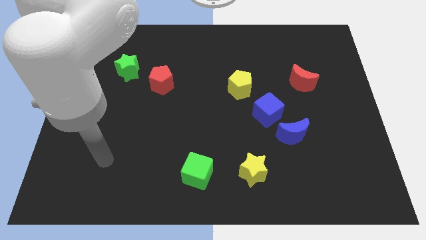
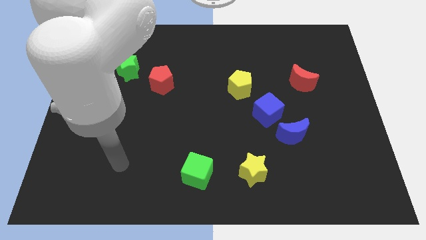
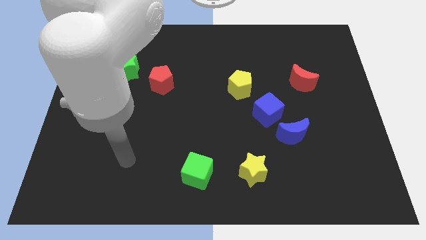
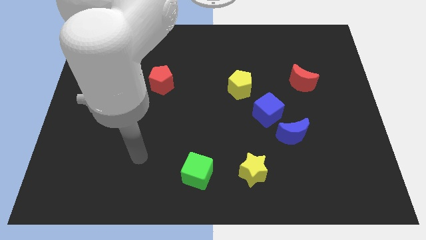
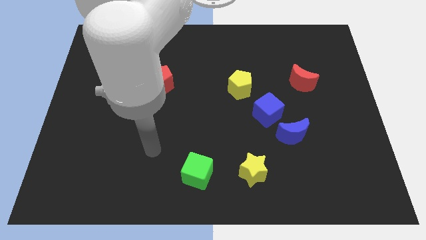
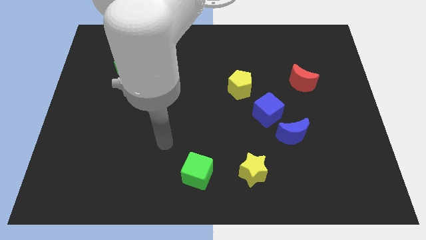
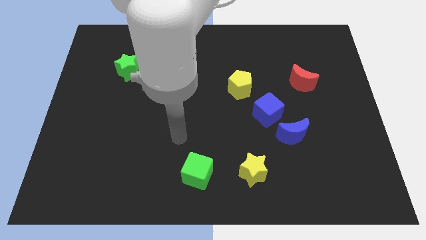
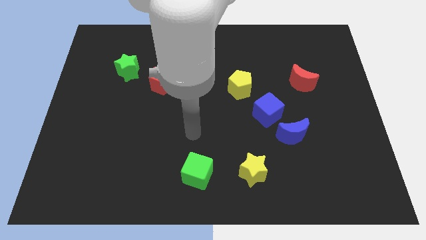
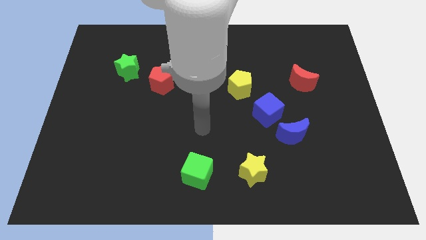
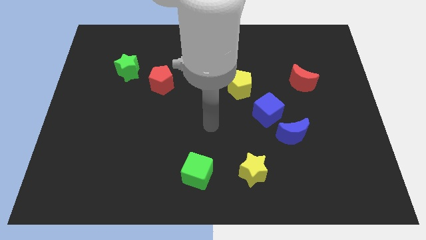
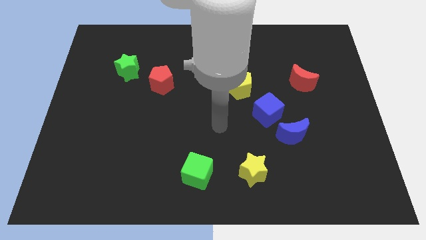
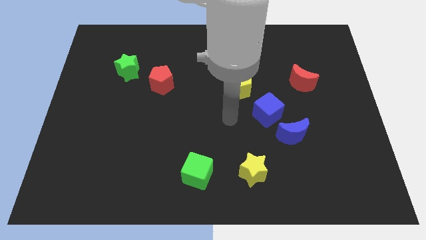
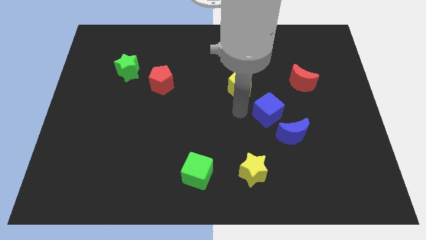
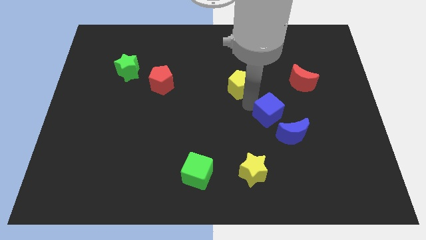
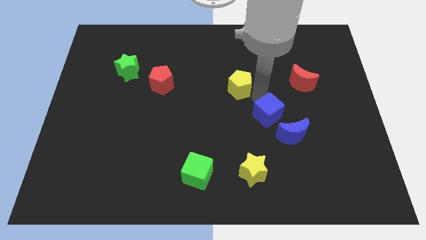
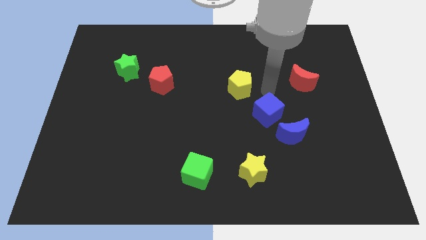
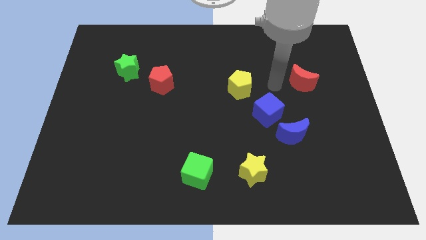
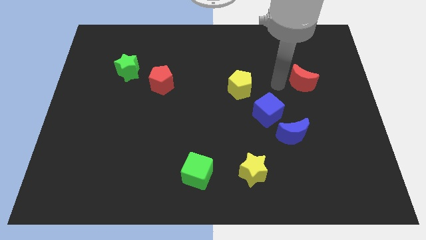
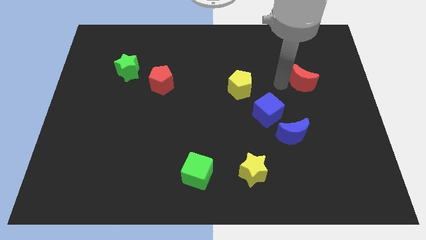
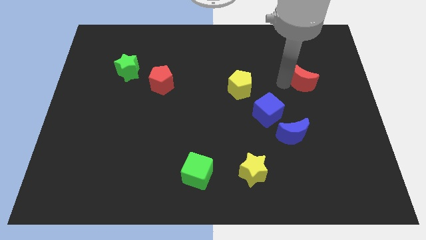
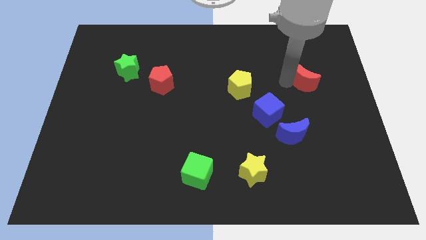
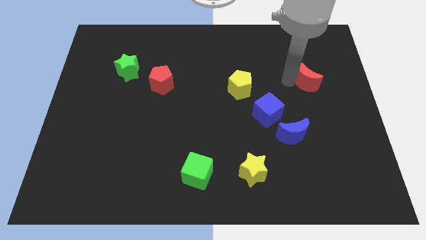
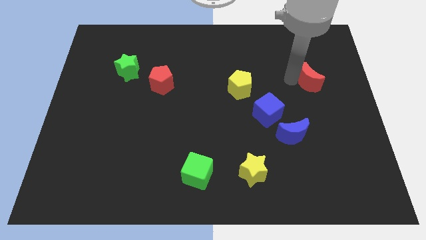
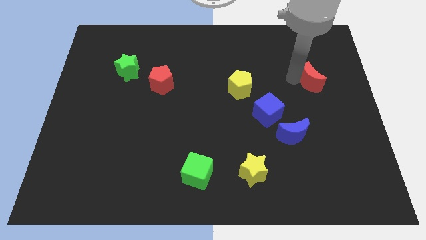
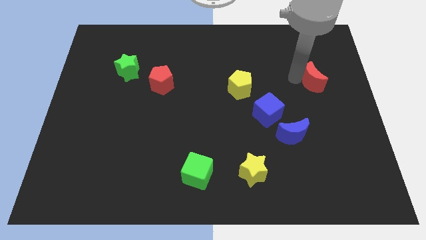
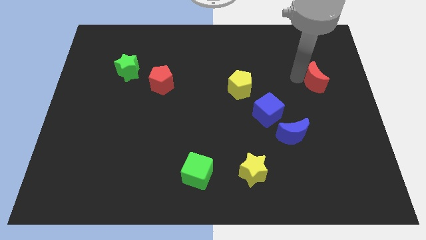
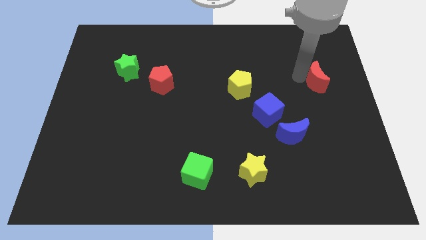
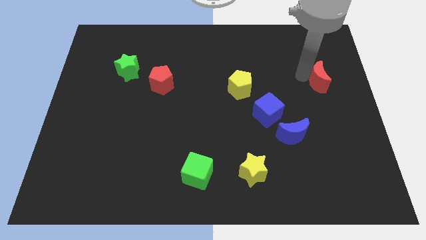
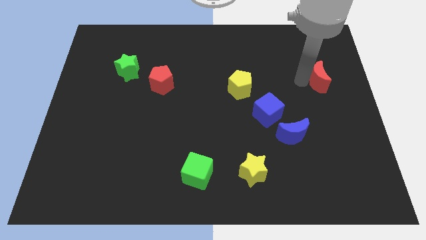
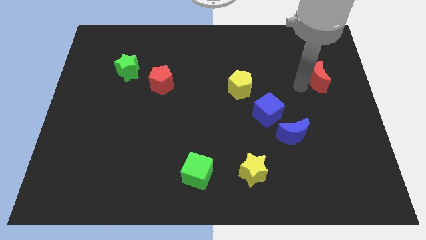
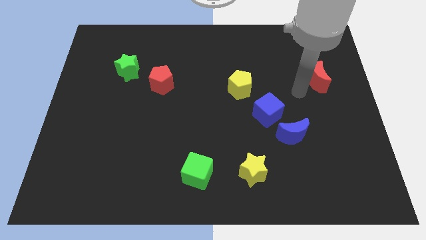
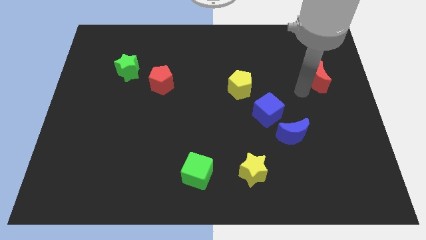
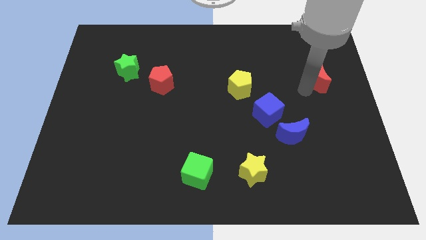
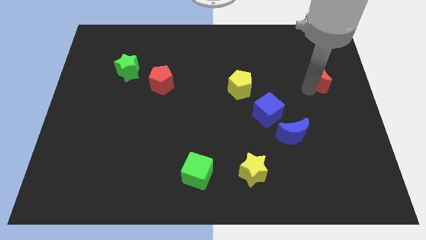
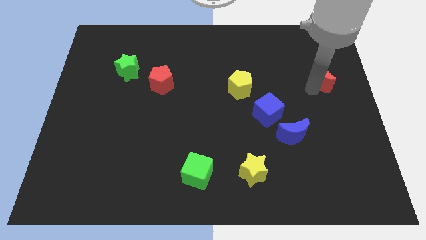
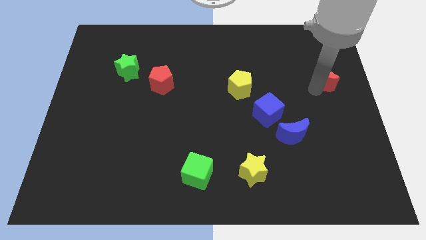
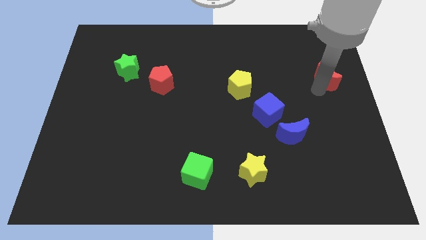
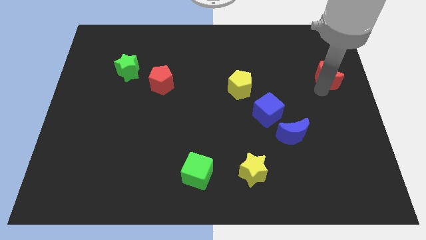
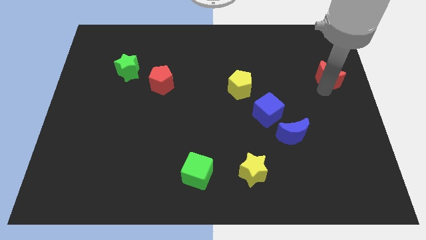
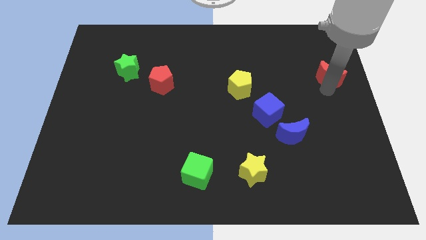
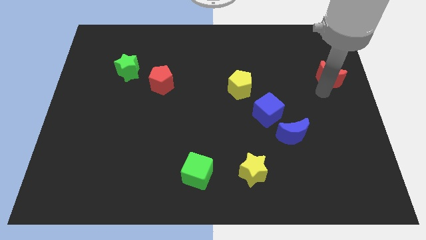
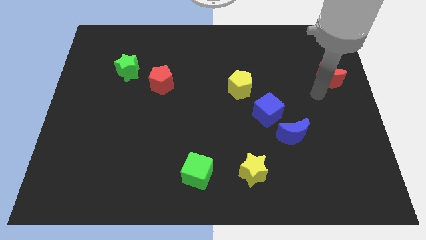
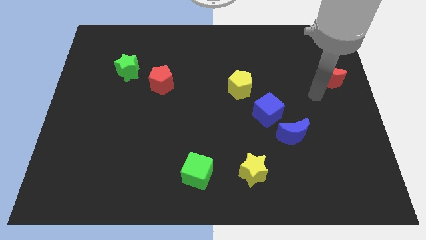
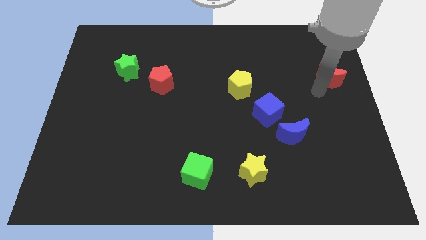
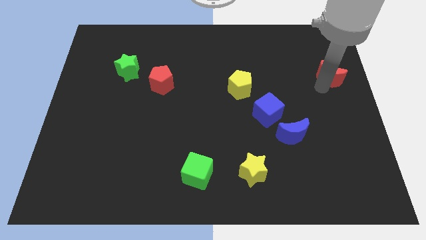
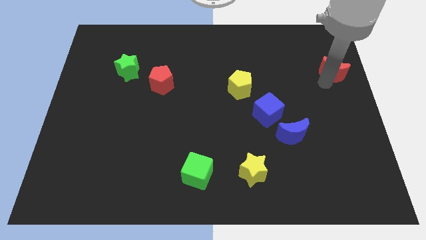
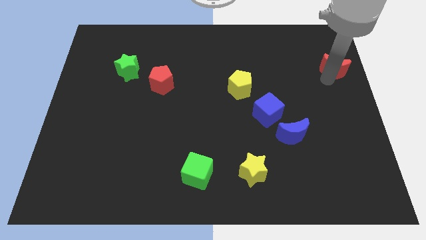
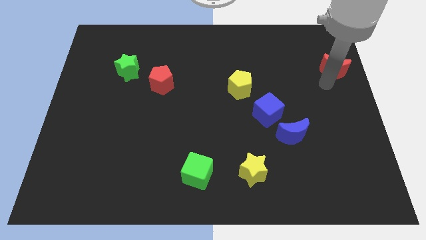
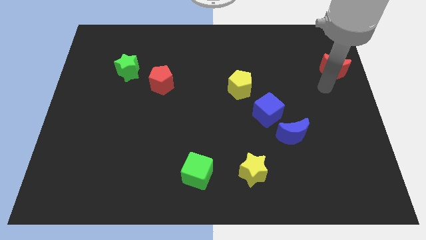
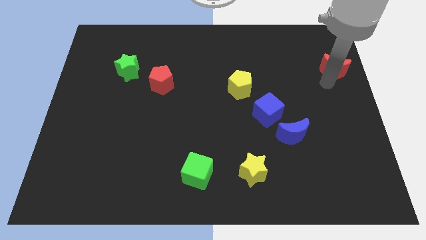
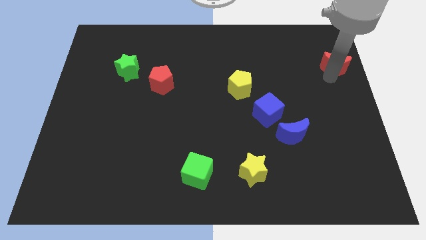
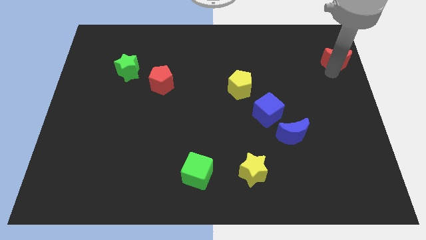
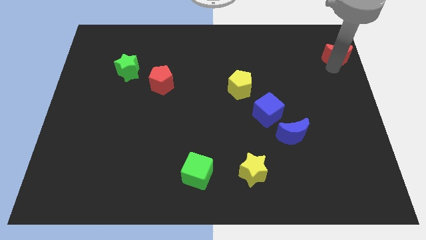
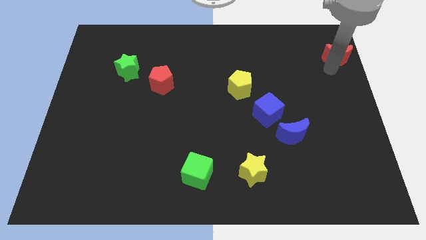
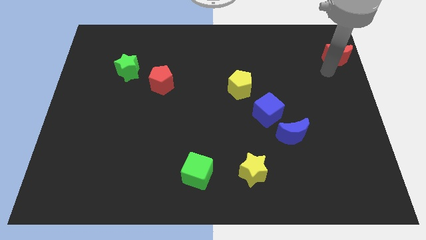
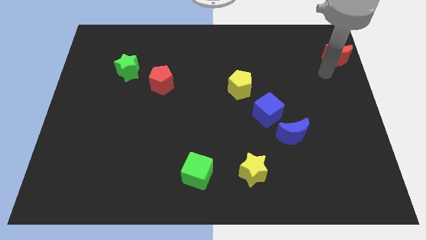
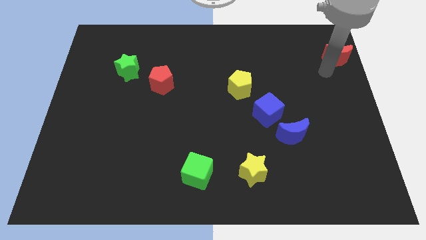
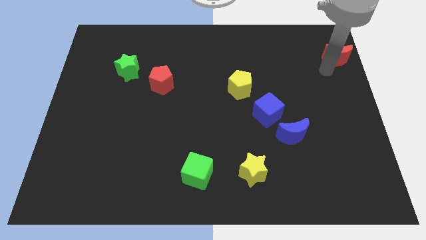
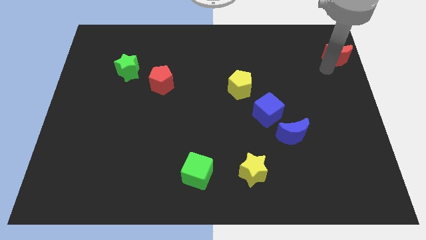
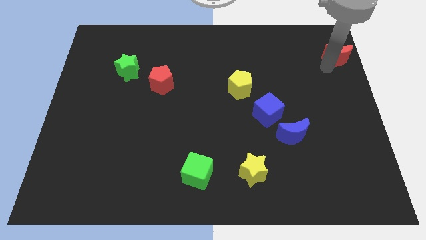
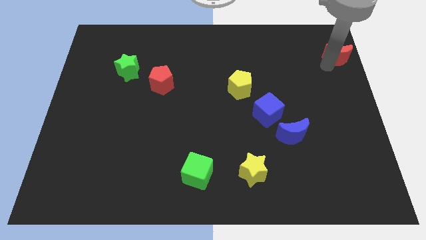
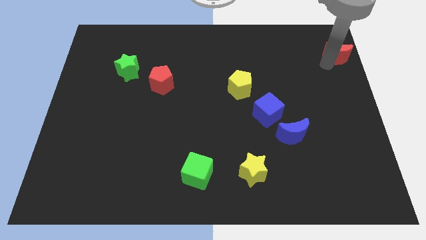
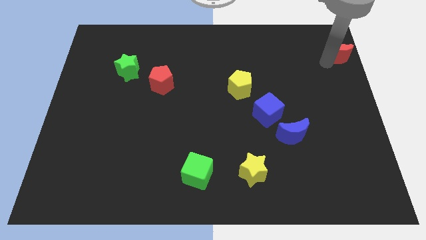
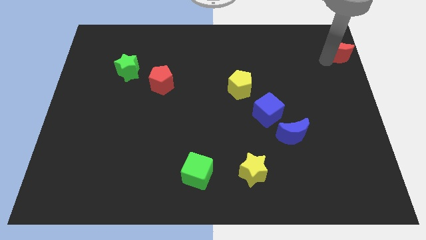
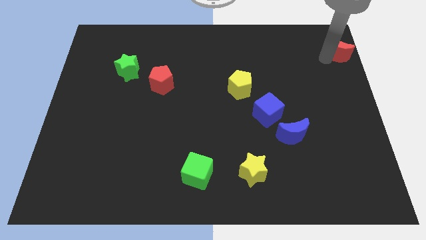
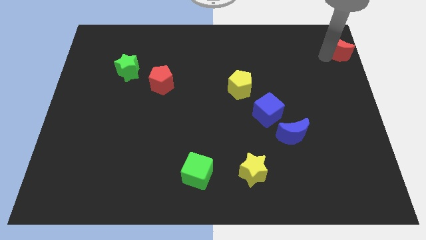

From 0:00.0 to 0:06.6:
slide the red moon to the top right
